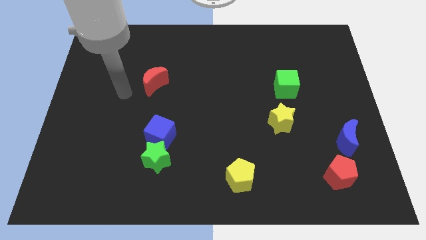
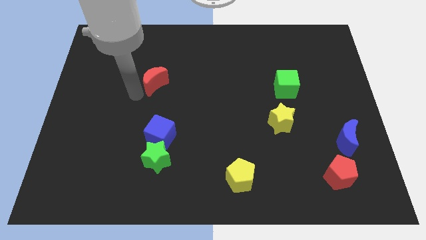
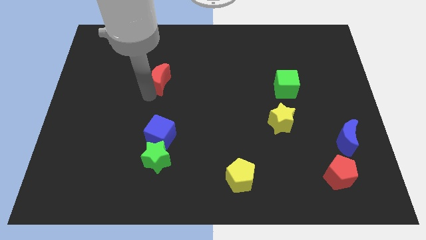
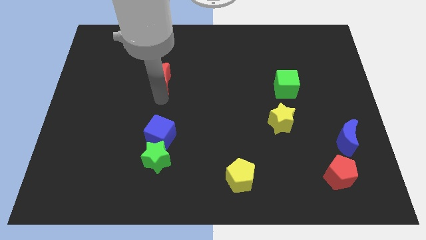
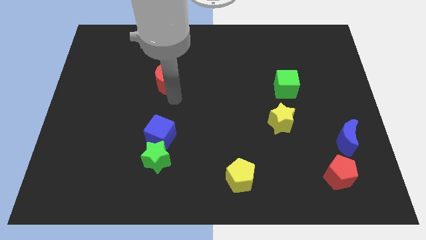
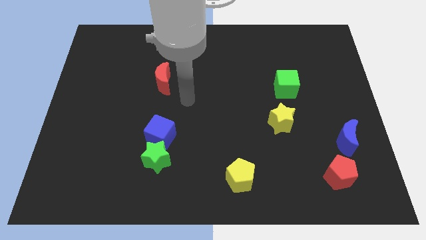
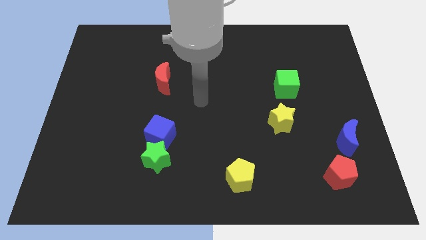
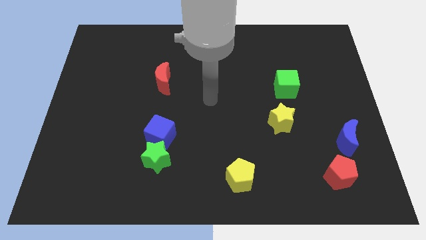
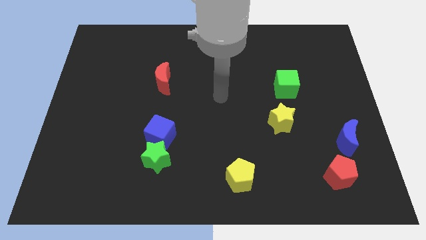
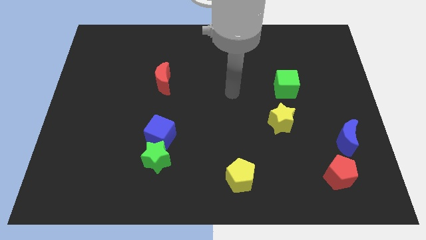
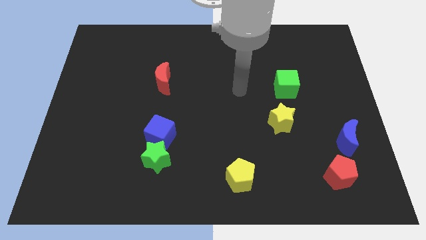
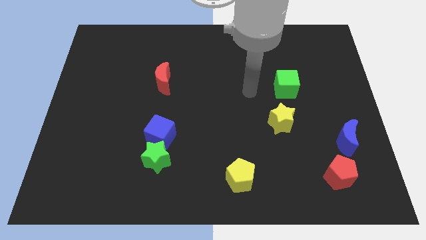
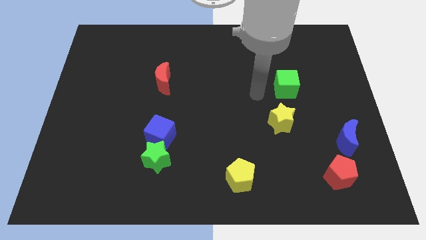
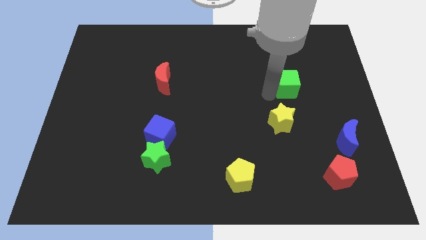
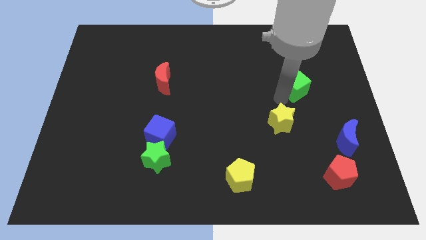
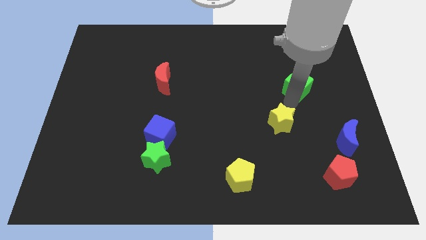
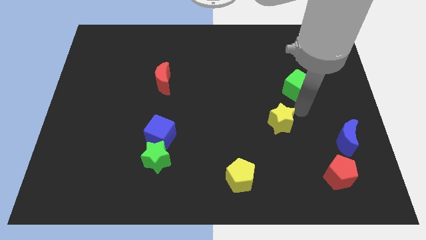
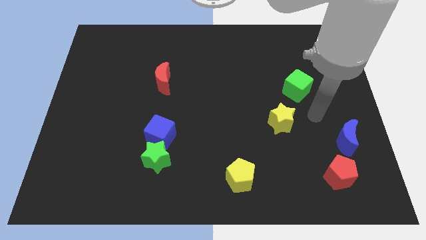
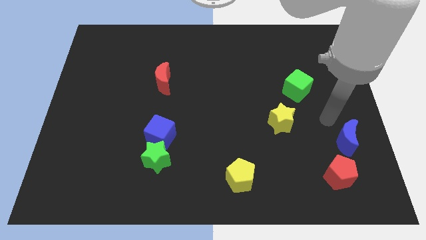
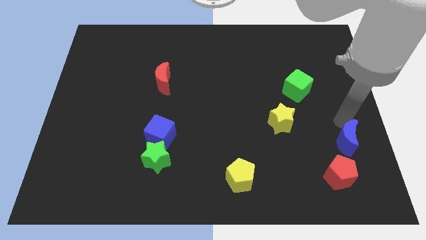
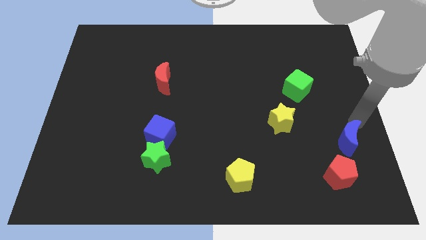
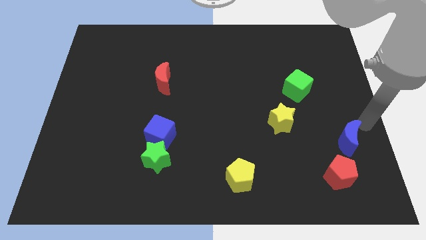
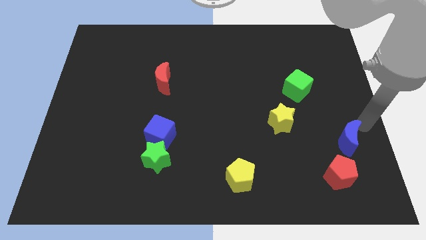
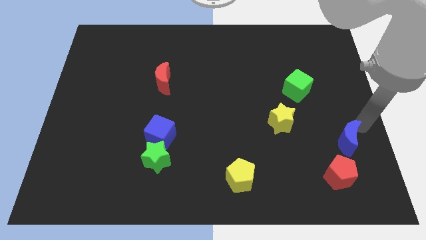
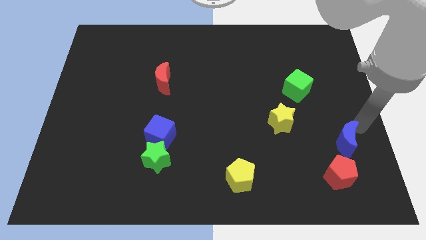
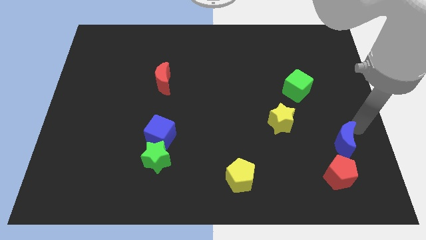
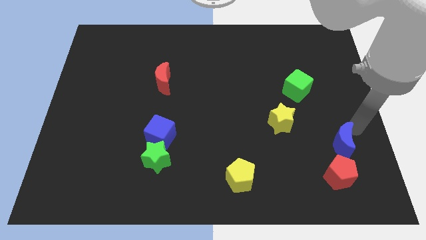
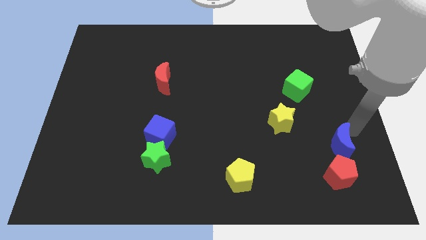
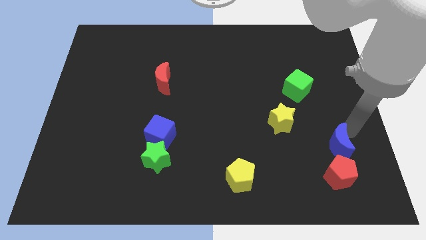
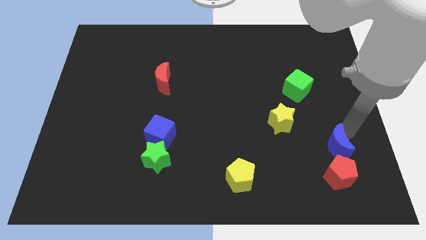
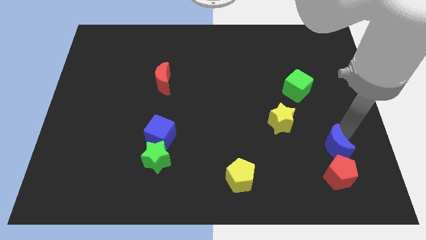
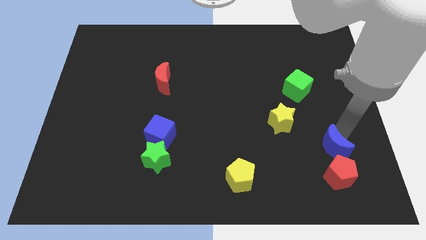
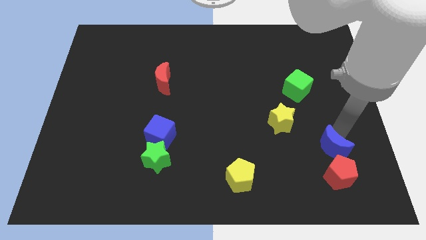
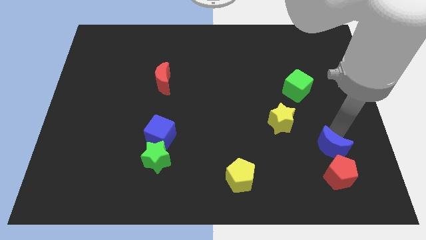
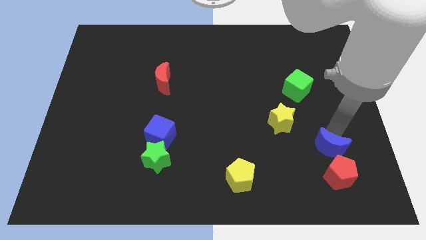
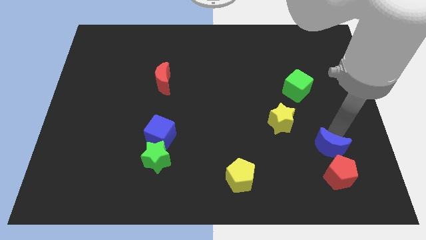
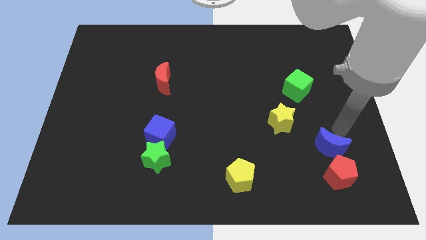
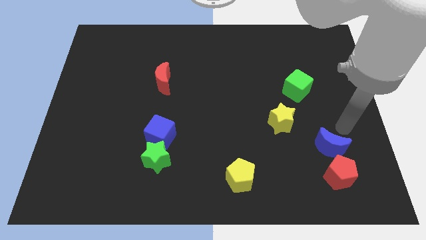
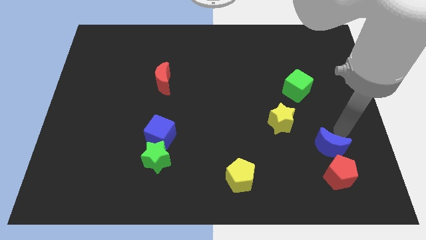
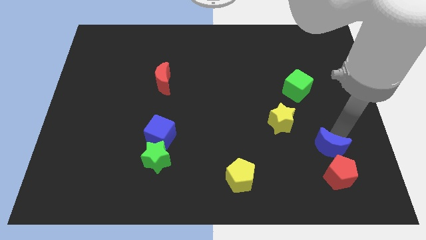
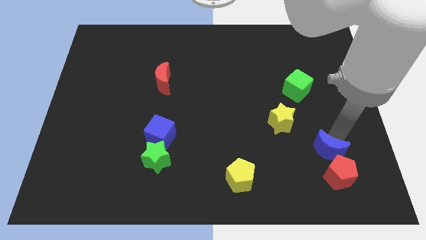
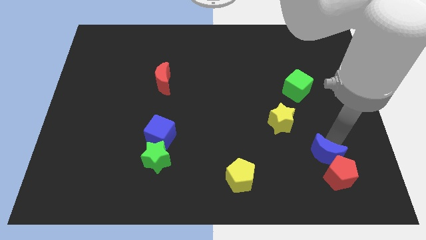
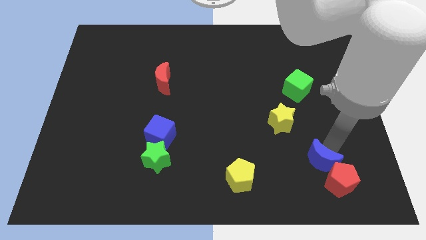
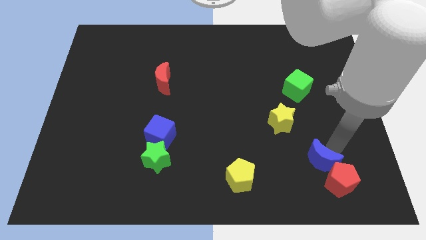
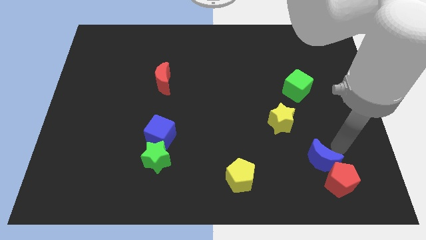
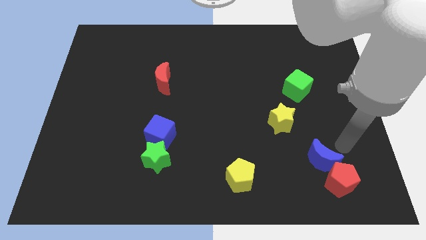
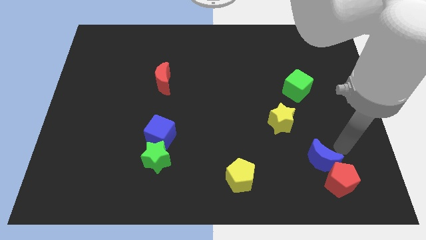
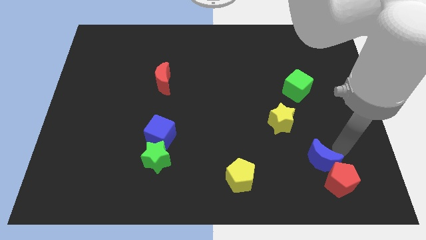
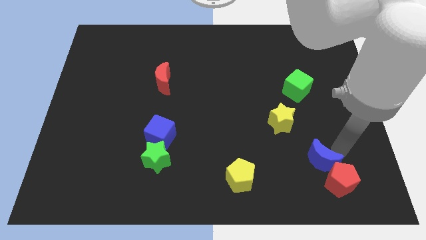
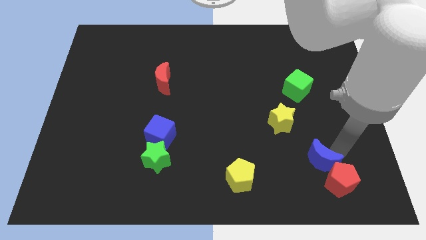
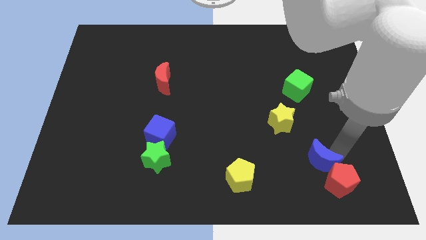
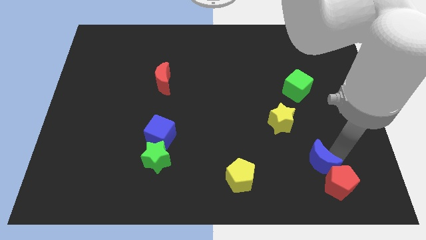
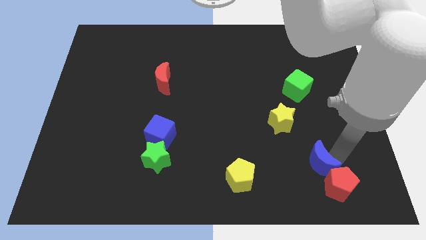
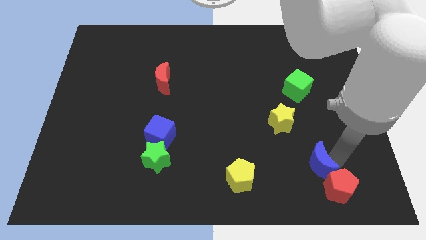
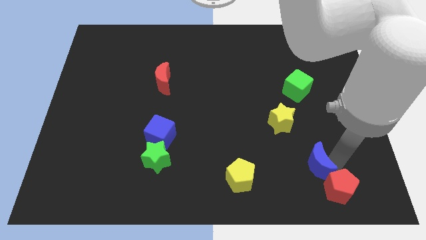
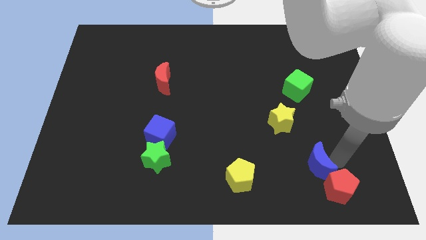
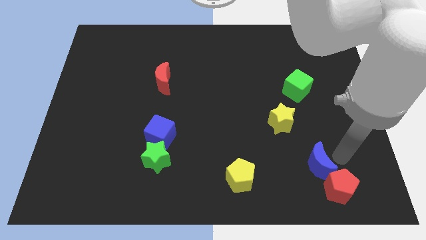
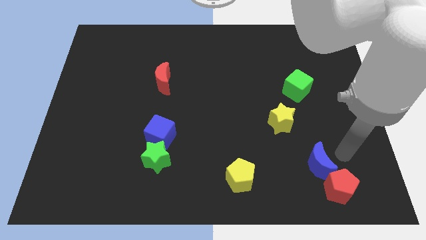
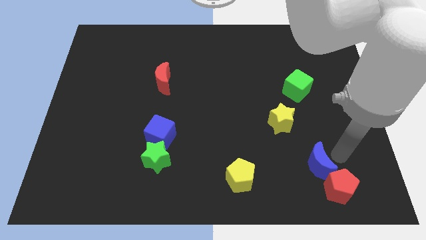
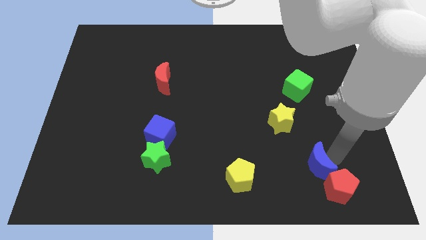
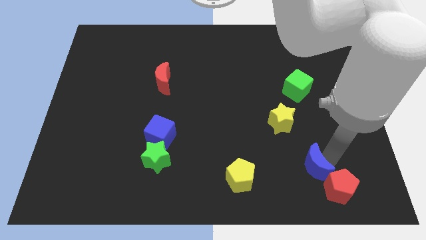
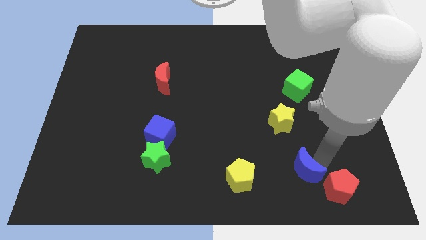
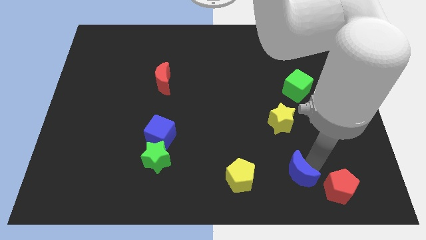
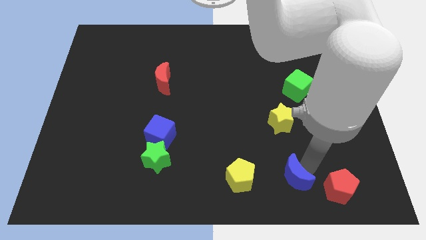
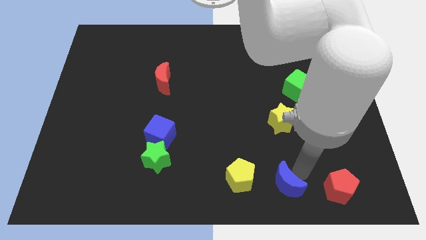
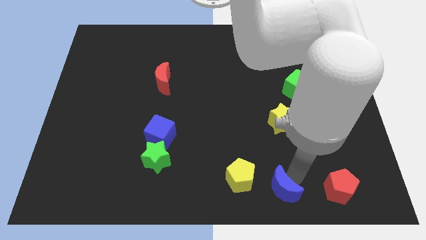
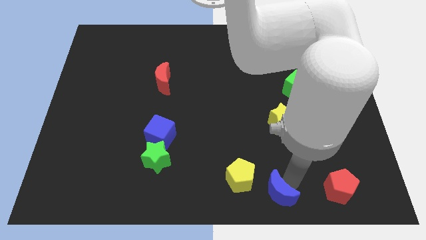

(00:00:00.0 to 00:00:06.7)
push the blue moon to the bottom side

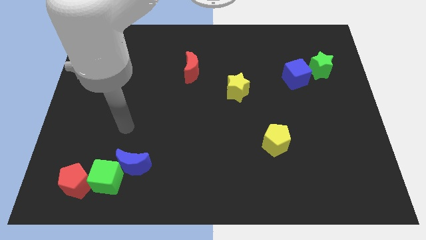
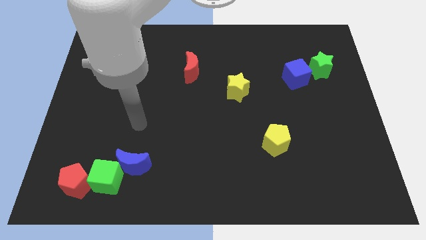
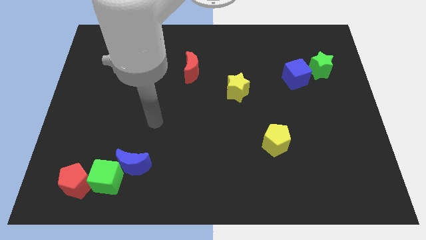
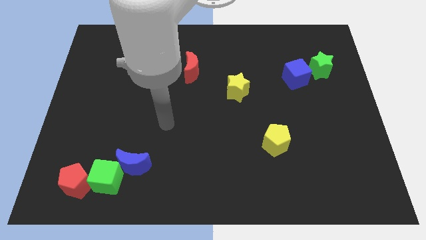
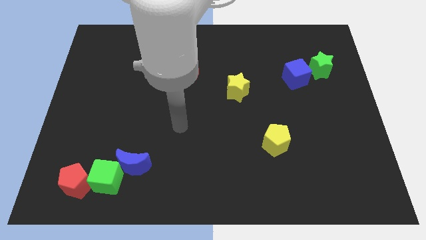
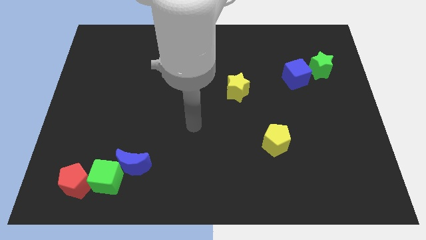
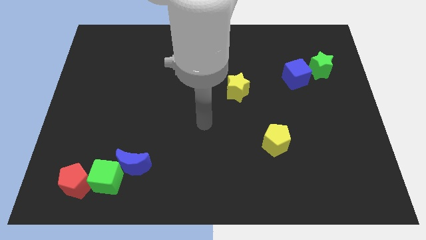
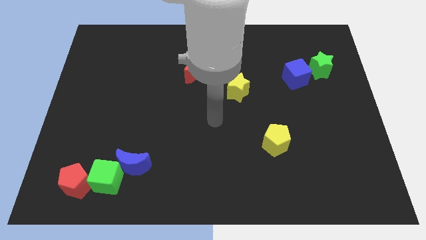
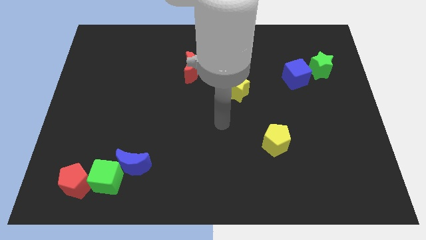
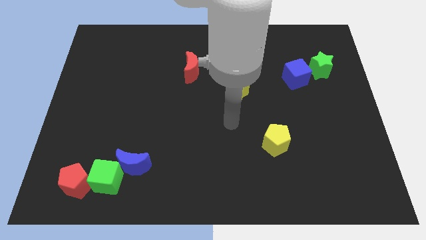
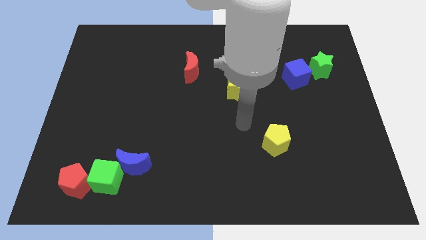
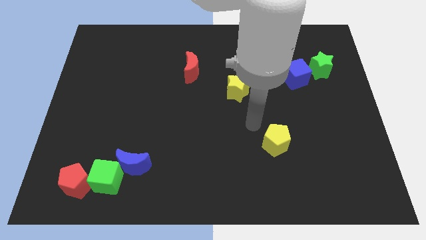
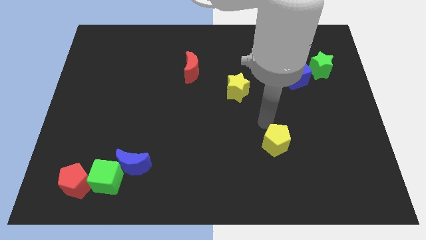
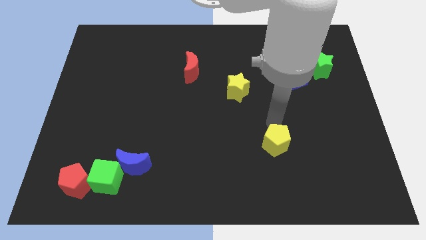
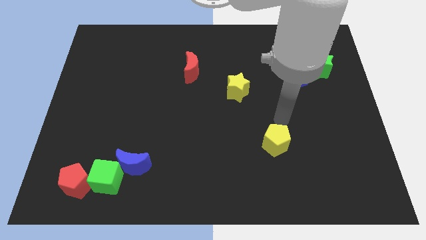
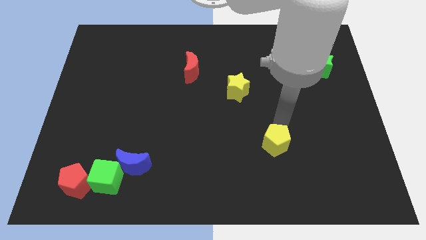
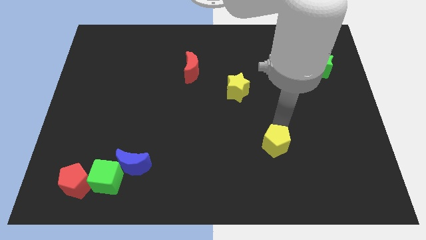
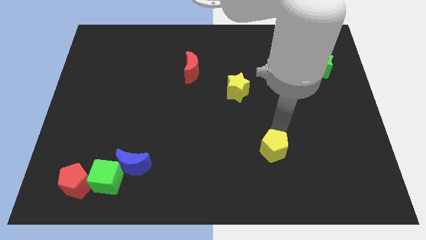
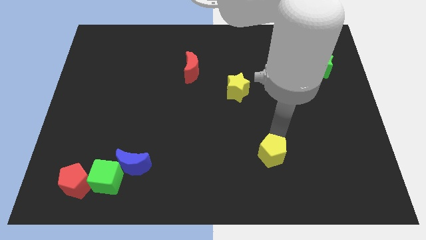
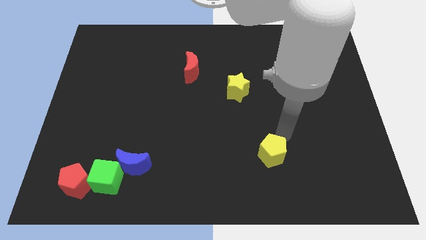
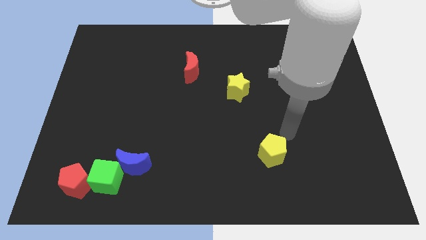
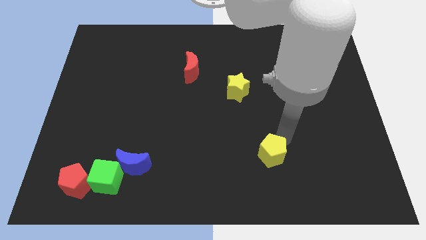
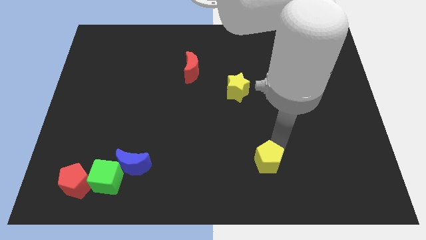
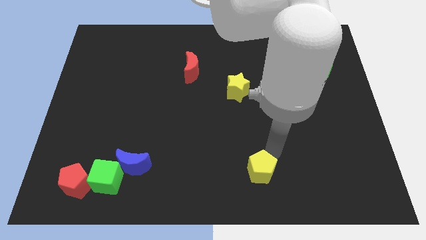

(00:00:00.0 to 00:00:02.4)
move the yellow pentagon to the bottom side
